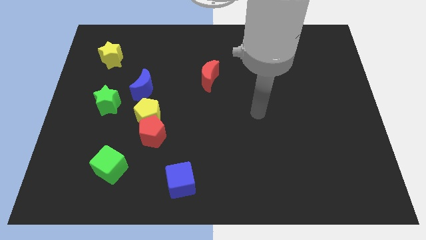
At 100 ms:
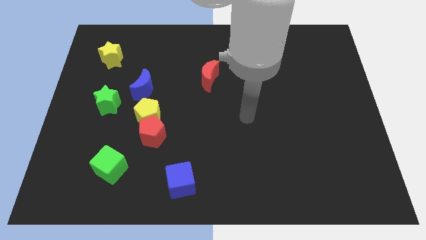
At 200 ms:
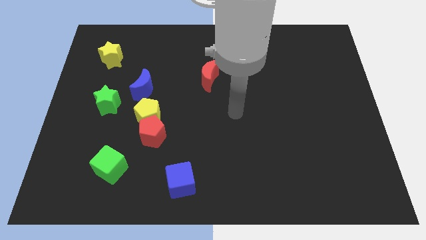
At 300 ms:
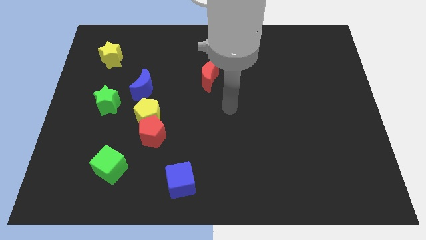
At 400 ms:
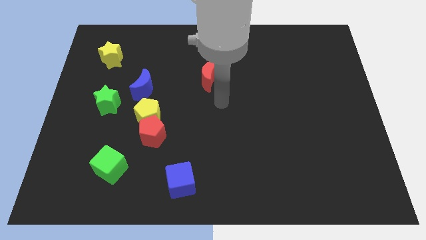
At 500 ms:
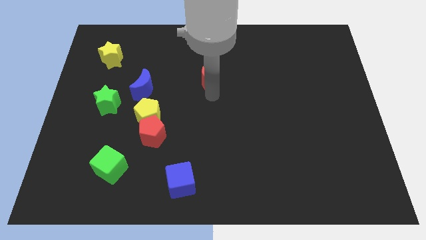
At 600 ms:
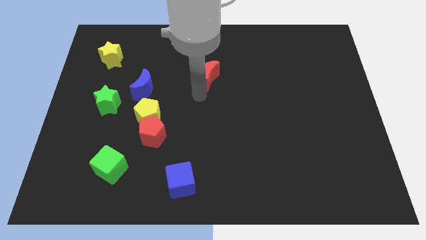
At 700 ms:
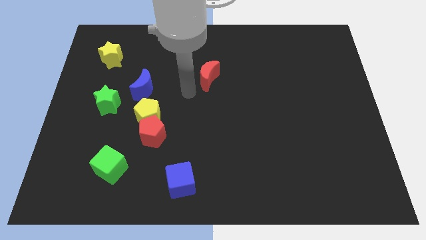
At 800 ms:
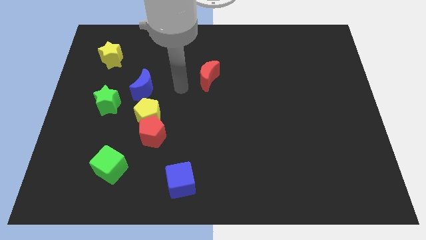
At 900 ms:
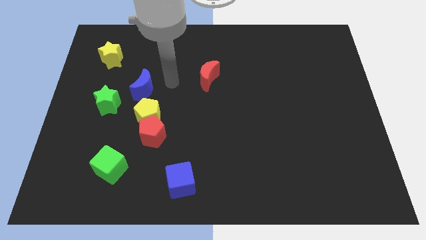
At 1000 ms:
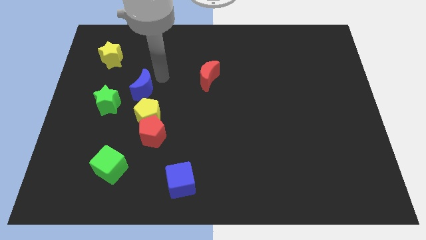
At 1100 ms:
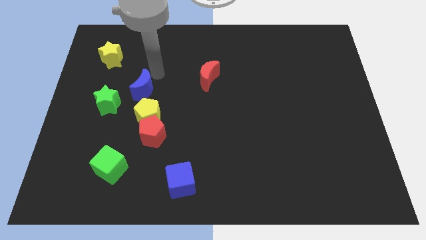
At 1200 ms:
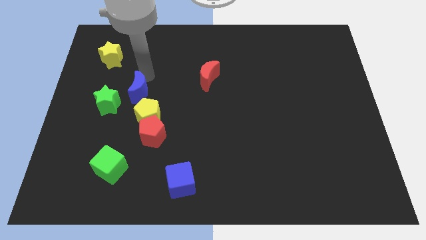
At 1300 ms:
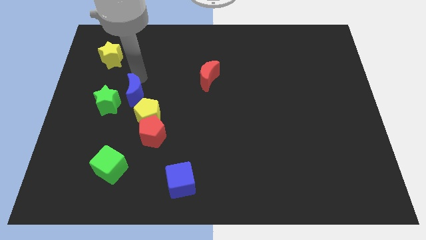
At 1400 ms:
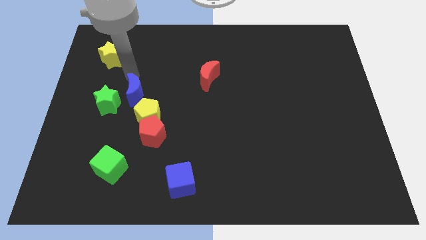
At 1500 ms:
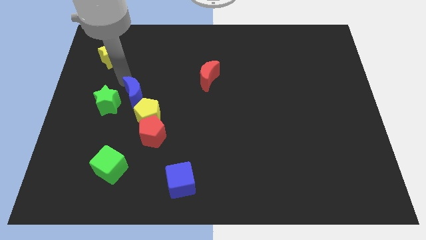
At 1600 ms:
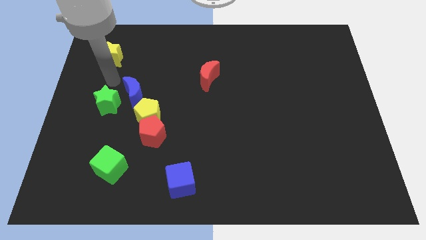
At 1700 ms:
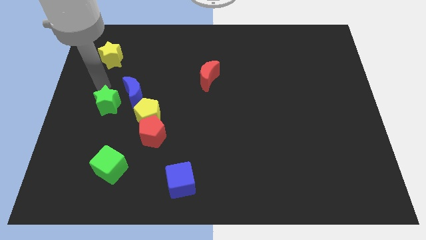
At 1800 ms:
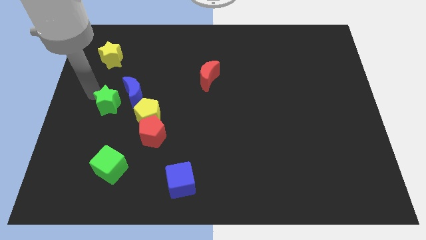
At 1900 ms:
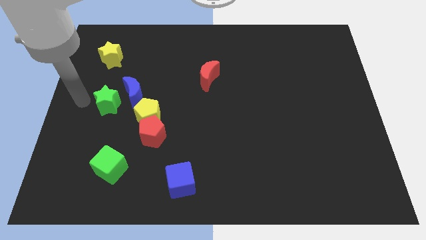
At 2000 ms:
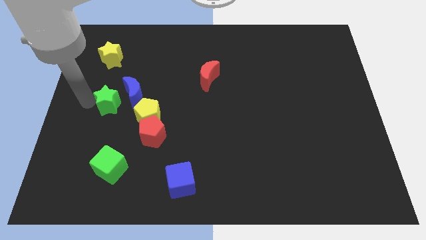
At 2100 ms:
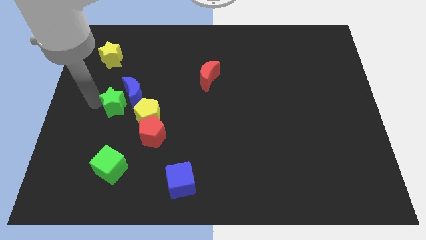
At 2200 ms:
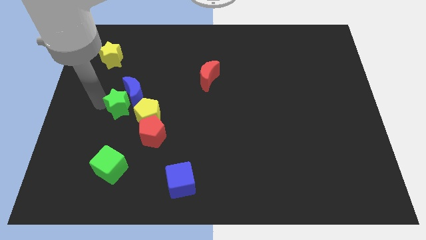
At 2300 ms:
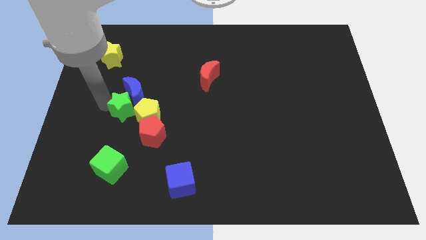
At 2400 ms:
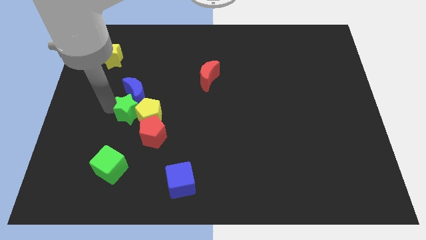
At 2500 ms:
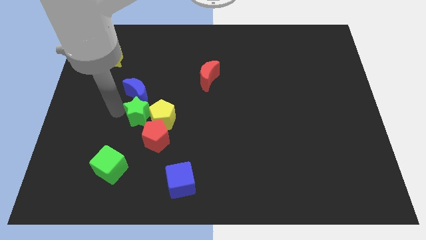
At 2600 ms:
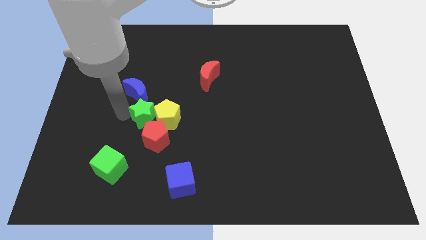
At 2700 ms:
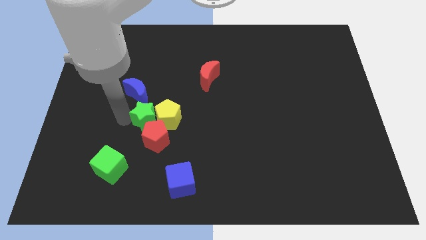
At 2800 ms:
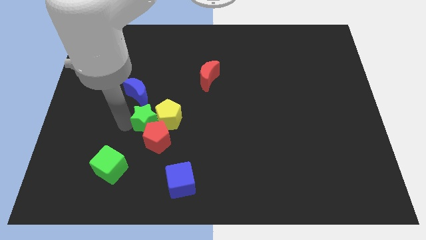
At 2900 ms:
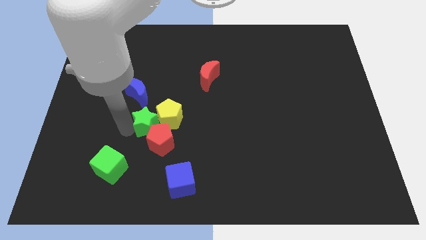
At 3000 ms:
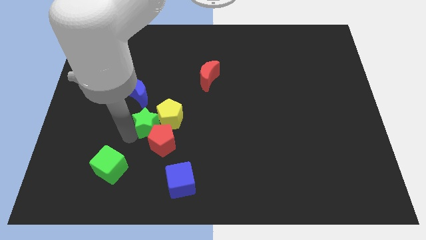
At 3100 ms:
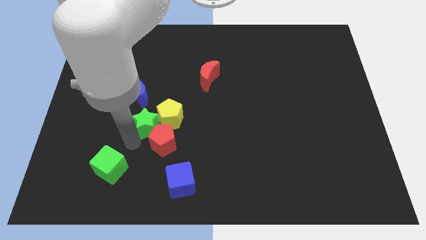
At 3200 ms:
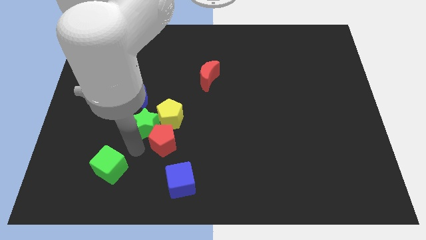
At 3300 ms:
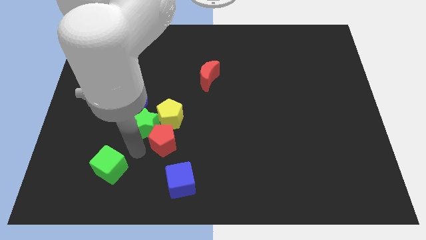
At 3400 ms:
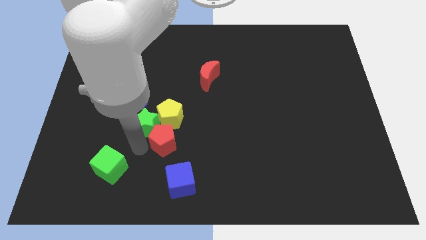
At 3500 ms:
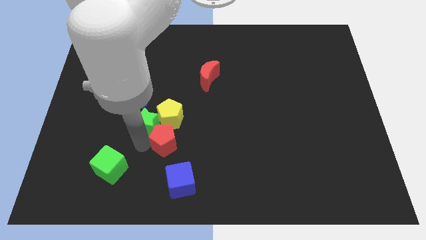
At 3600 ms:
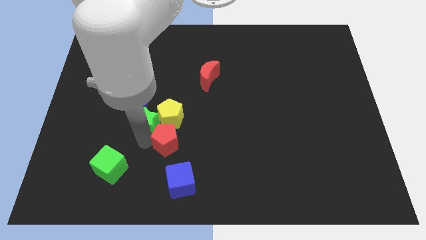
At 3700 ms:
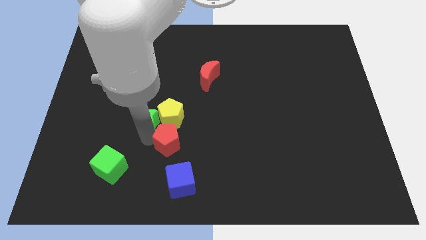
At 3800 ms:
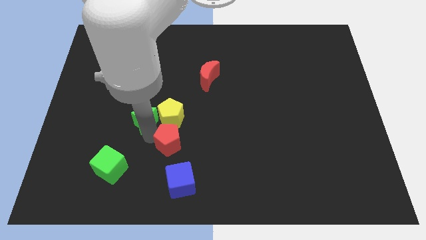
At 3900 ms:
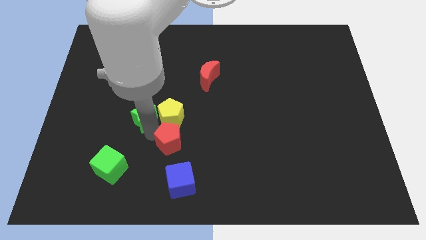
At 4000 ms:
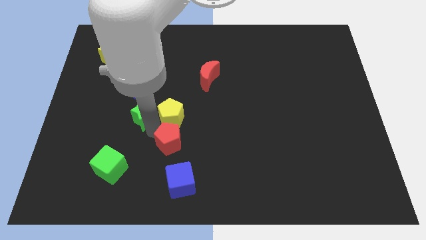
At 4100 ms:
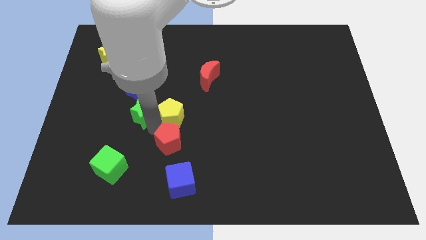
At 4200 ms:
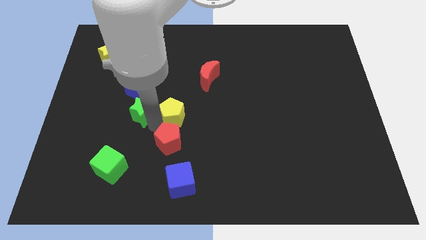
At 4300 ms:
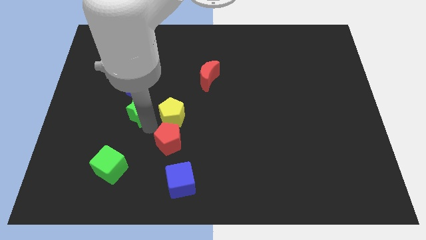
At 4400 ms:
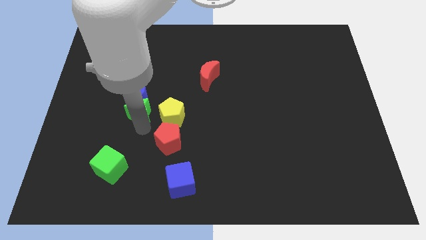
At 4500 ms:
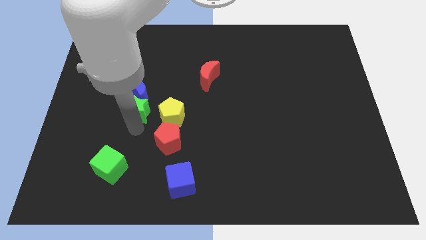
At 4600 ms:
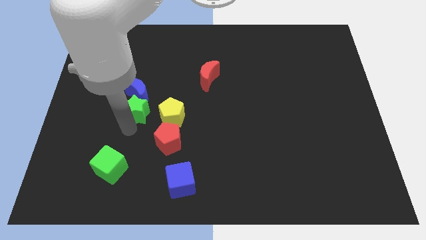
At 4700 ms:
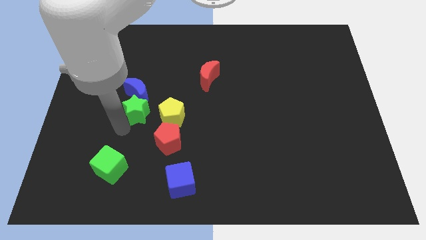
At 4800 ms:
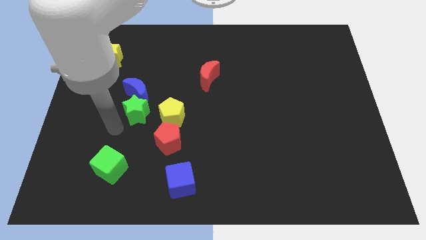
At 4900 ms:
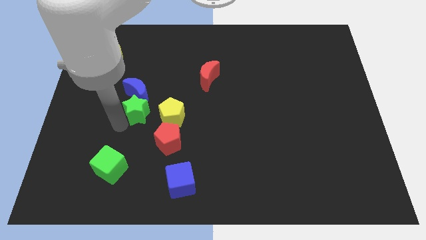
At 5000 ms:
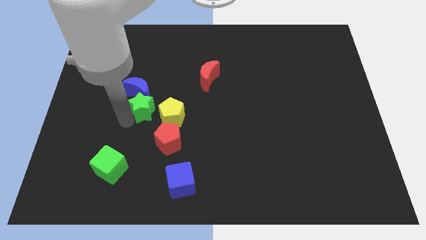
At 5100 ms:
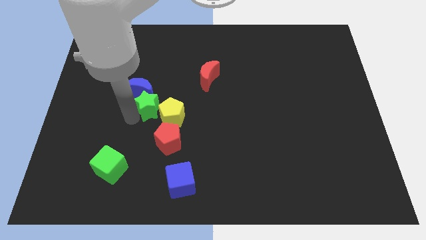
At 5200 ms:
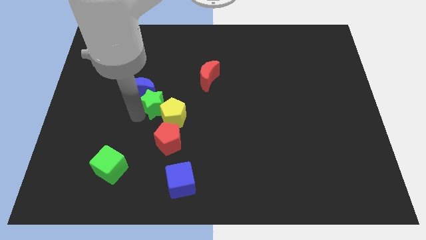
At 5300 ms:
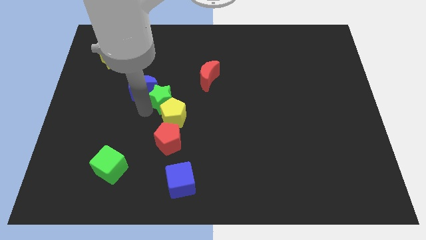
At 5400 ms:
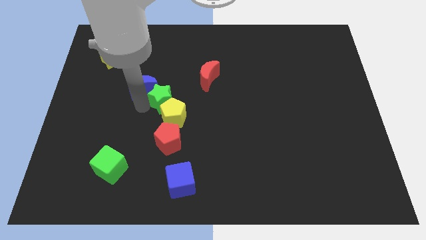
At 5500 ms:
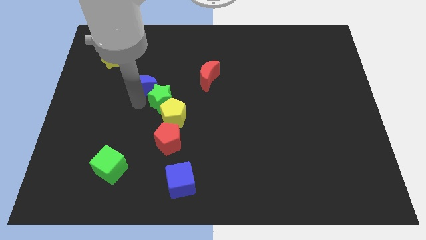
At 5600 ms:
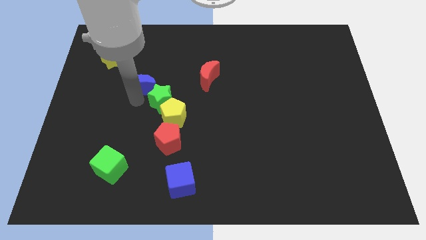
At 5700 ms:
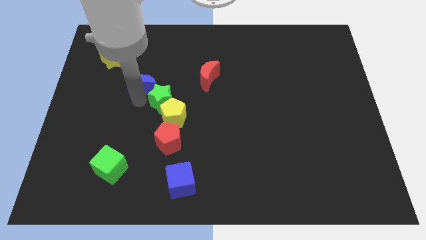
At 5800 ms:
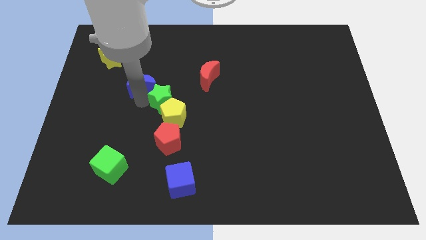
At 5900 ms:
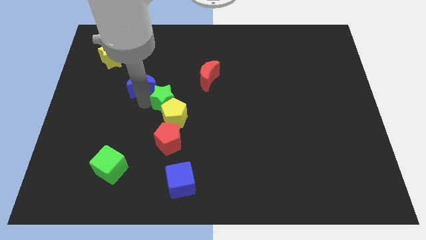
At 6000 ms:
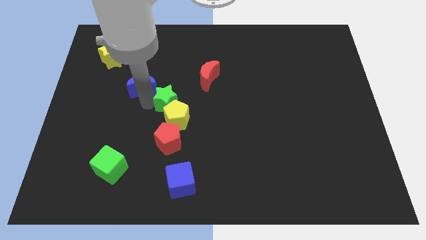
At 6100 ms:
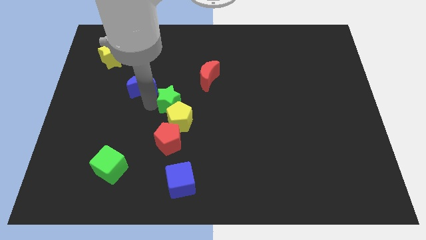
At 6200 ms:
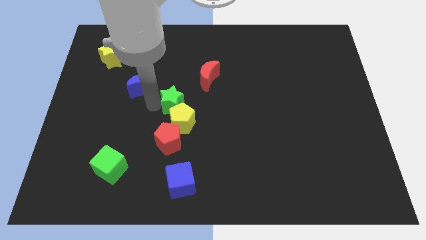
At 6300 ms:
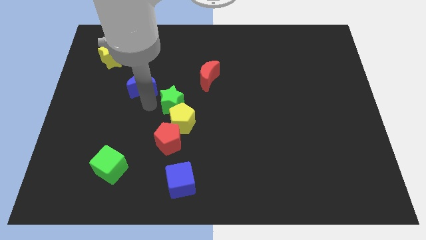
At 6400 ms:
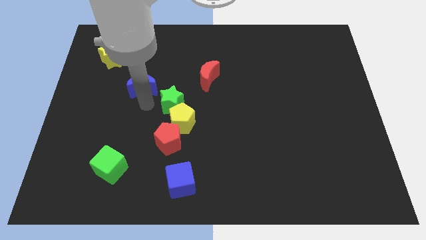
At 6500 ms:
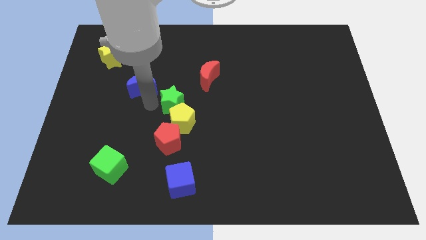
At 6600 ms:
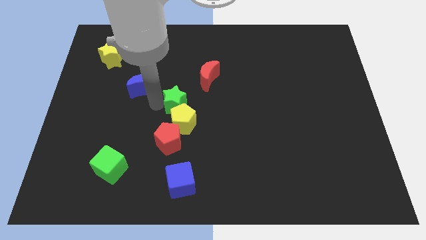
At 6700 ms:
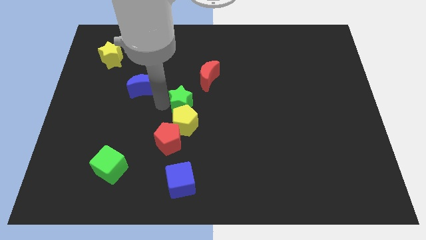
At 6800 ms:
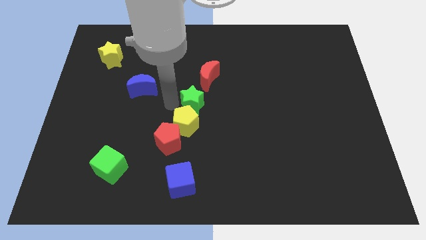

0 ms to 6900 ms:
slide the green star to the right

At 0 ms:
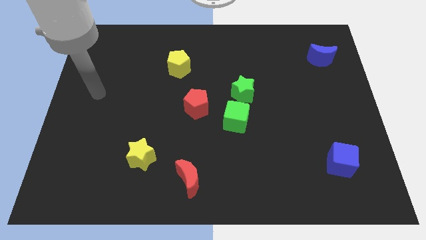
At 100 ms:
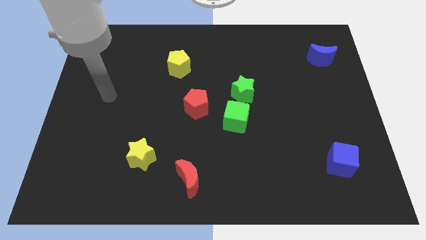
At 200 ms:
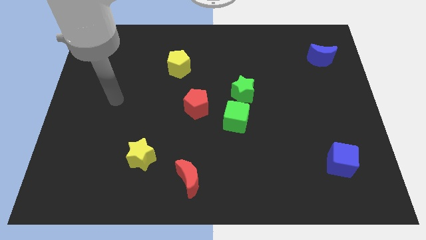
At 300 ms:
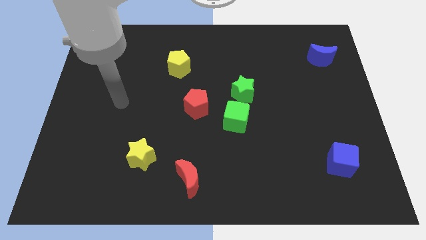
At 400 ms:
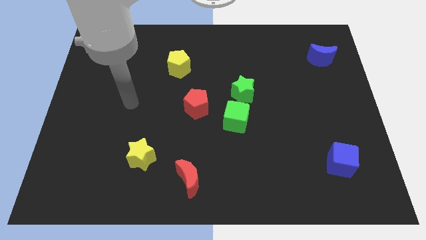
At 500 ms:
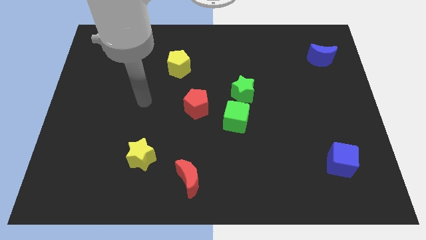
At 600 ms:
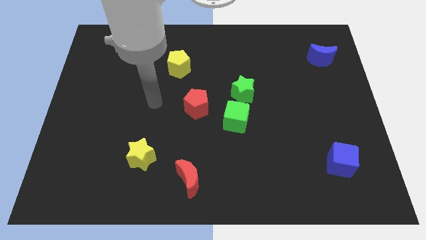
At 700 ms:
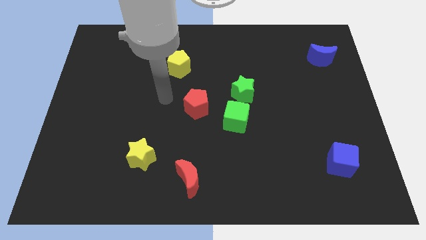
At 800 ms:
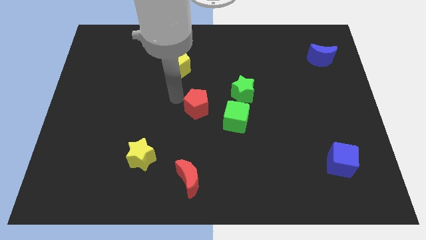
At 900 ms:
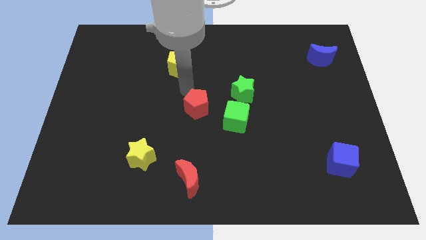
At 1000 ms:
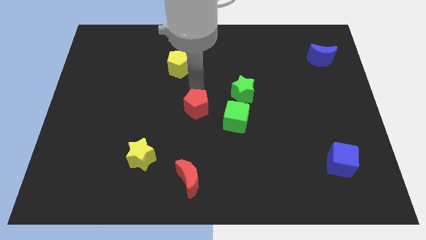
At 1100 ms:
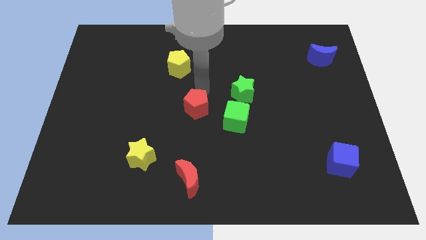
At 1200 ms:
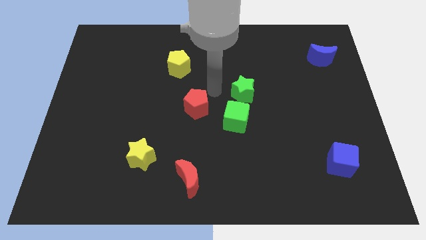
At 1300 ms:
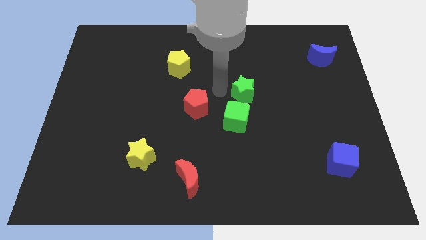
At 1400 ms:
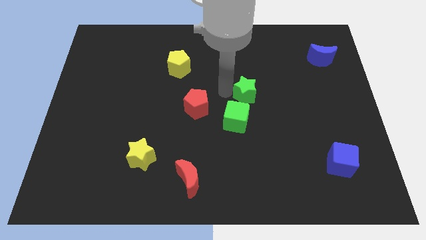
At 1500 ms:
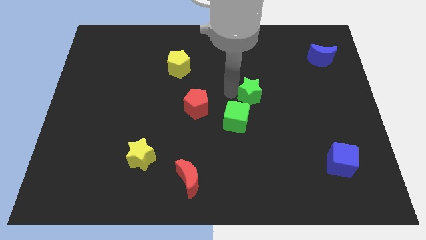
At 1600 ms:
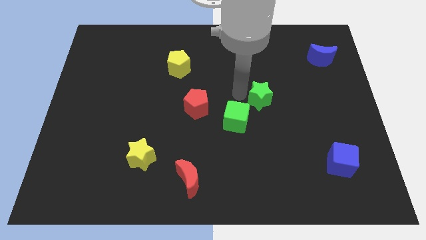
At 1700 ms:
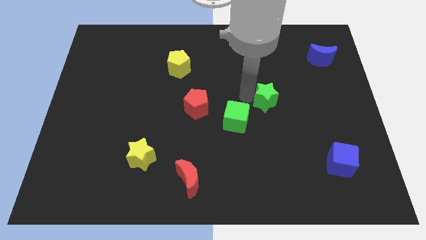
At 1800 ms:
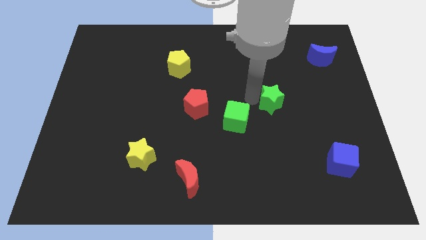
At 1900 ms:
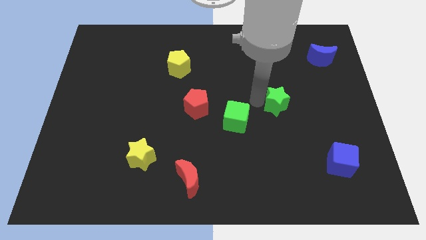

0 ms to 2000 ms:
slide the green star to the right a bit
